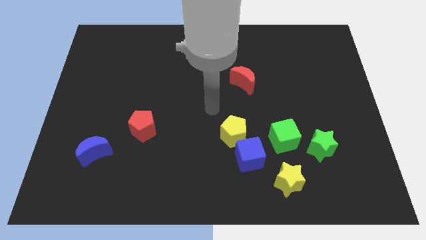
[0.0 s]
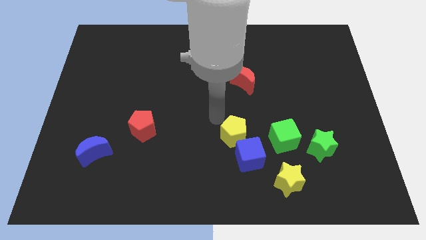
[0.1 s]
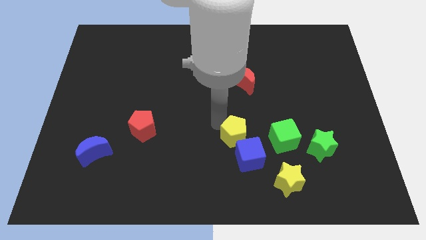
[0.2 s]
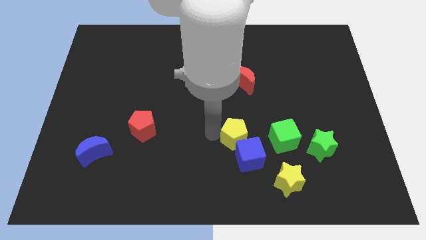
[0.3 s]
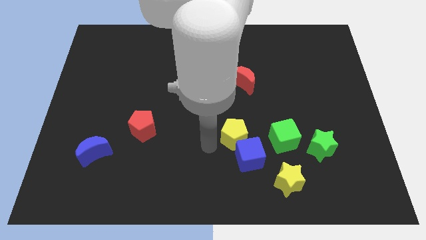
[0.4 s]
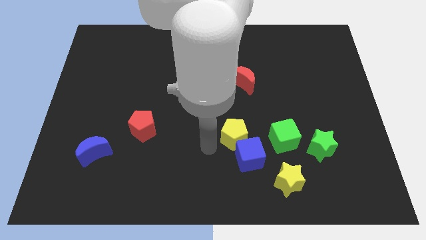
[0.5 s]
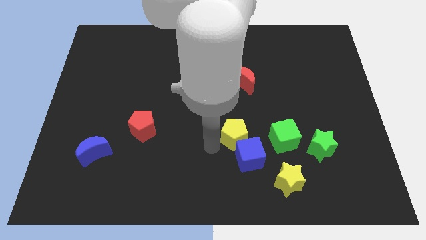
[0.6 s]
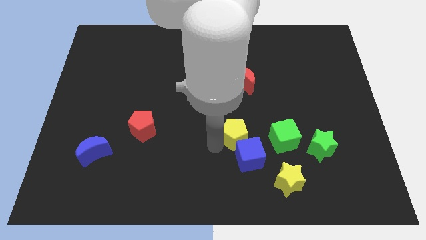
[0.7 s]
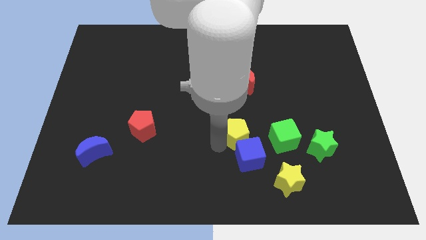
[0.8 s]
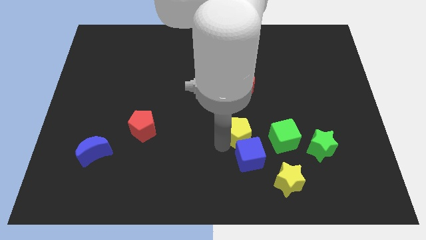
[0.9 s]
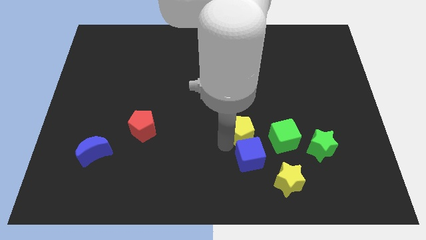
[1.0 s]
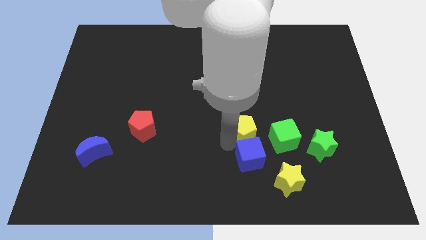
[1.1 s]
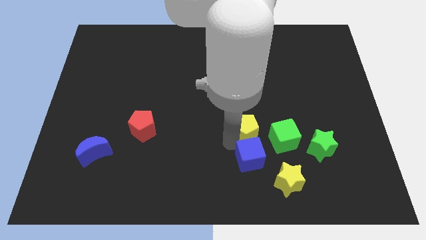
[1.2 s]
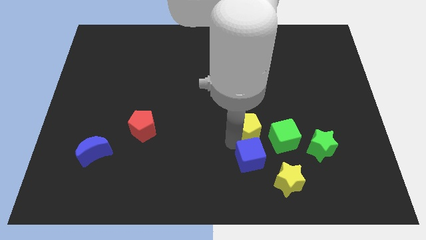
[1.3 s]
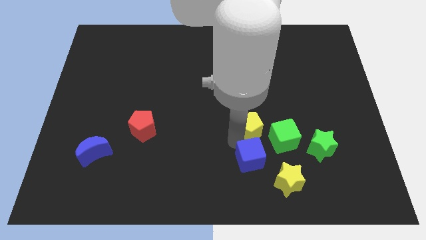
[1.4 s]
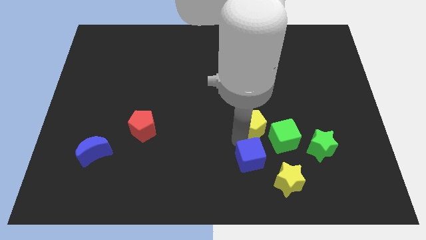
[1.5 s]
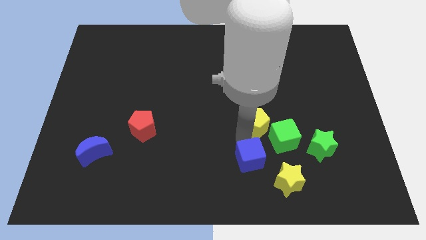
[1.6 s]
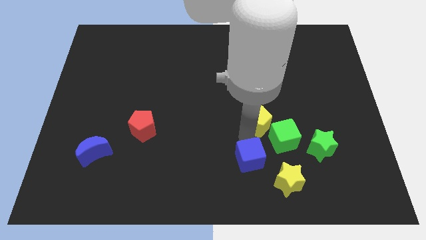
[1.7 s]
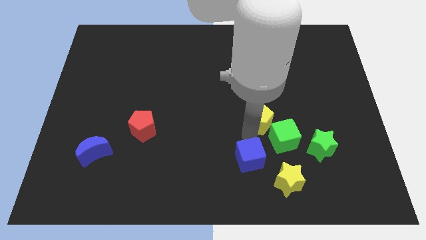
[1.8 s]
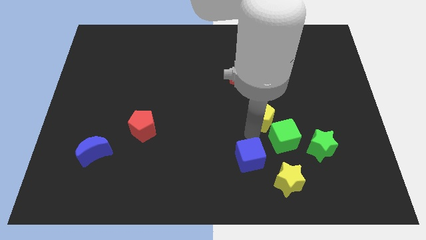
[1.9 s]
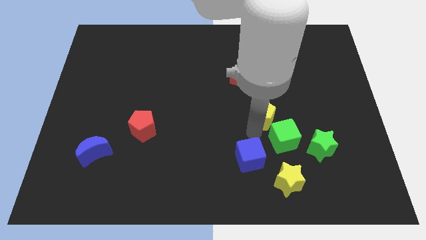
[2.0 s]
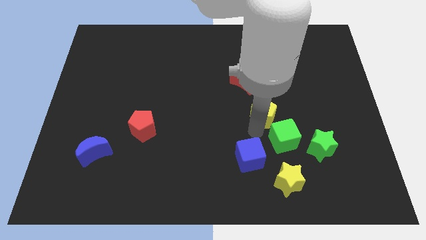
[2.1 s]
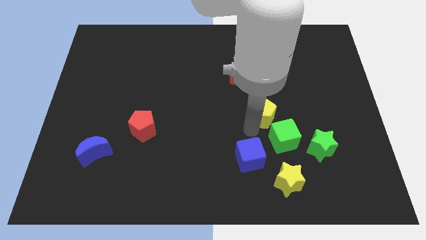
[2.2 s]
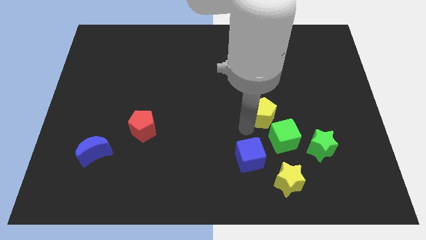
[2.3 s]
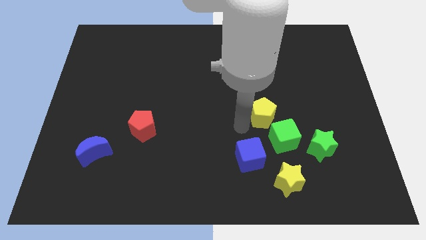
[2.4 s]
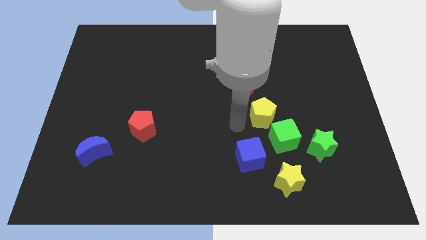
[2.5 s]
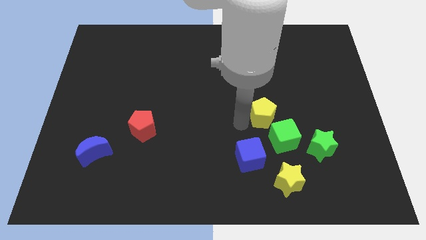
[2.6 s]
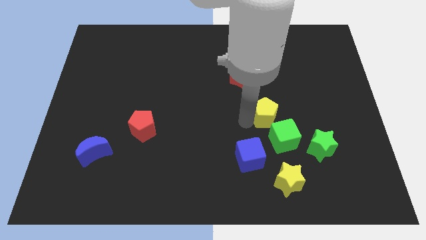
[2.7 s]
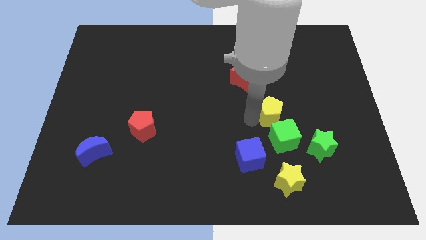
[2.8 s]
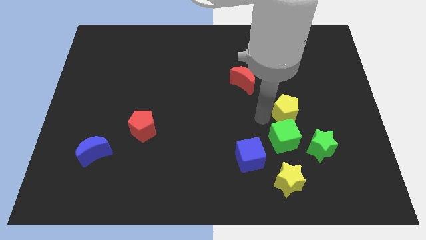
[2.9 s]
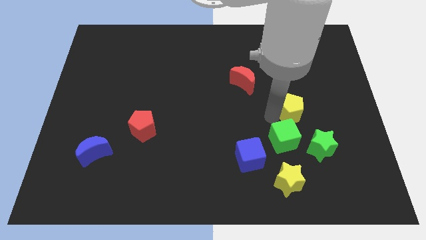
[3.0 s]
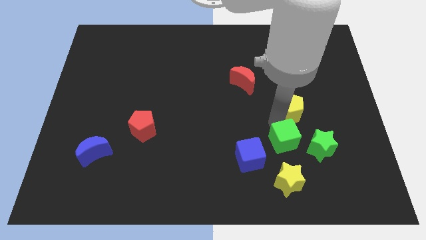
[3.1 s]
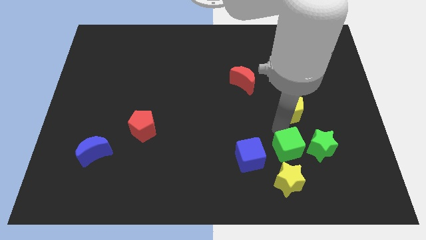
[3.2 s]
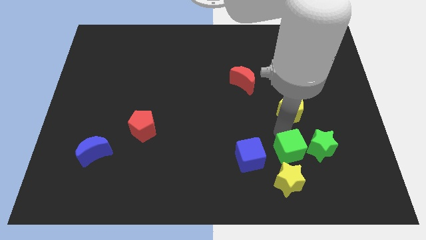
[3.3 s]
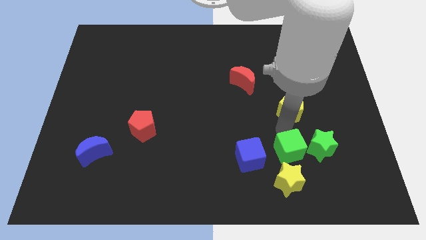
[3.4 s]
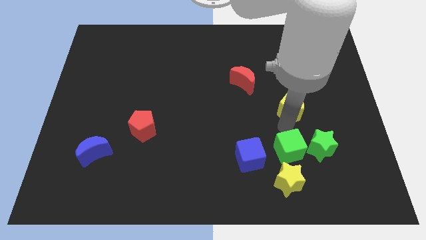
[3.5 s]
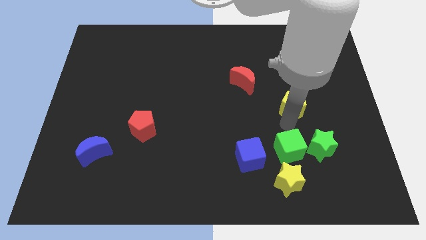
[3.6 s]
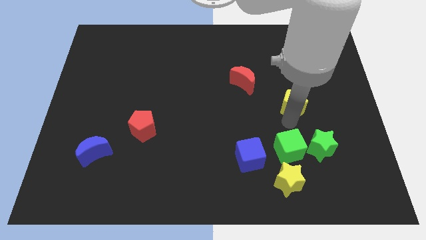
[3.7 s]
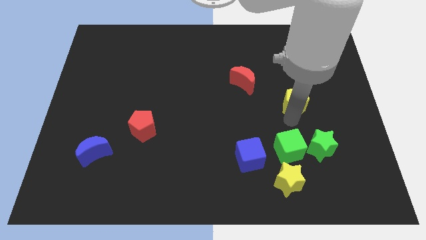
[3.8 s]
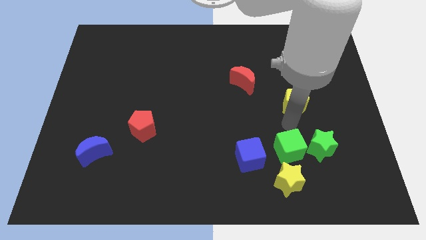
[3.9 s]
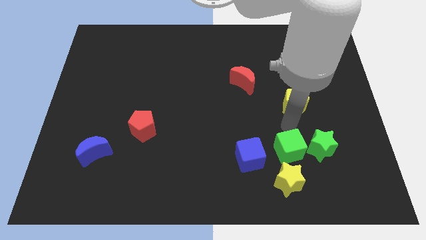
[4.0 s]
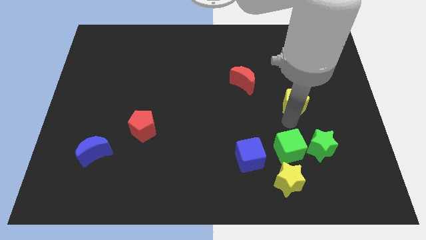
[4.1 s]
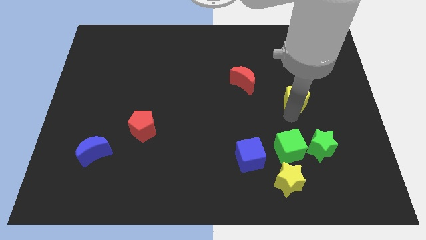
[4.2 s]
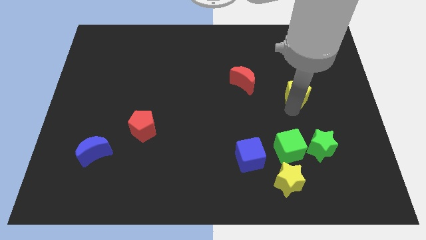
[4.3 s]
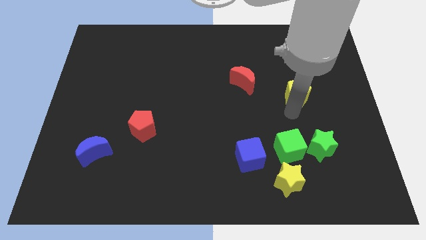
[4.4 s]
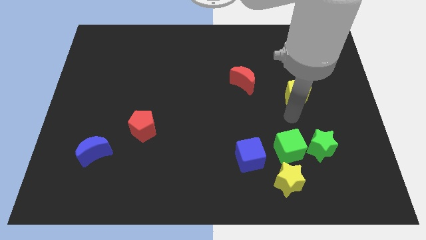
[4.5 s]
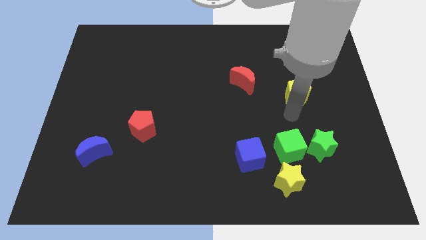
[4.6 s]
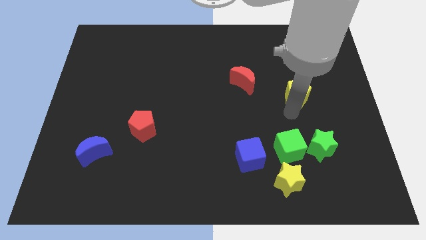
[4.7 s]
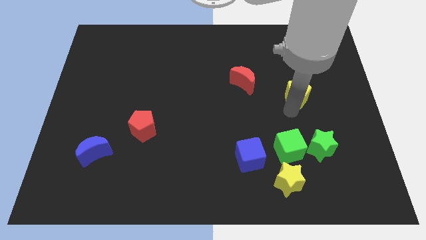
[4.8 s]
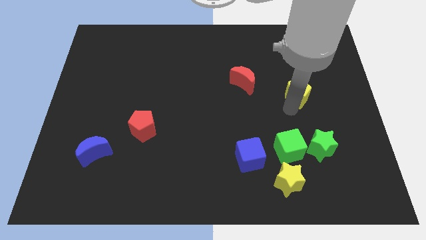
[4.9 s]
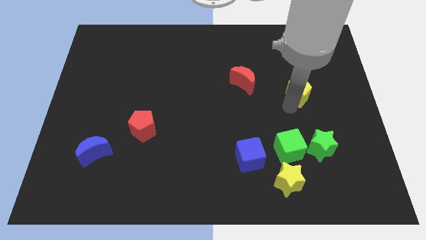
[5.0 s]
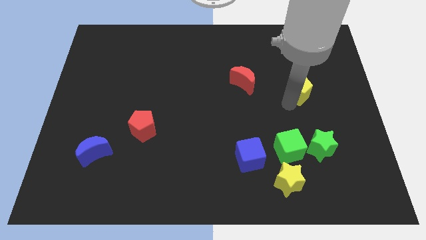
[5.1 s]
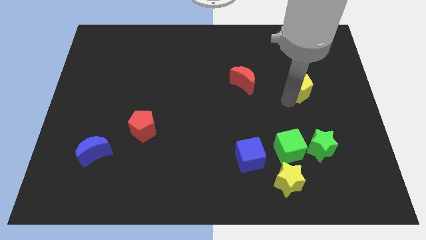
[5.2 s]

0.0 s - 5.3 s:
slide the yellow pentagon upwards and then right

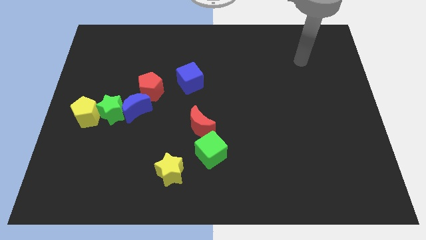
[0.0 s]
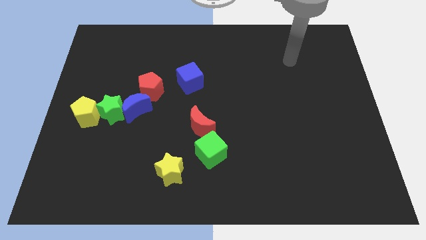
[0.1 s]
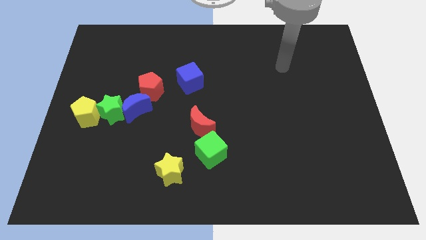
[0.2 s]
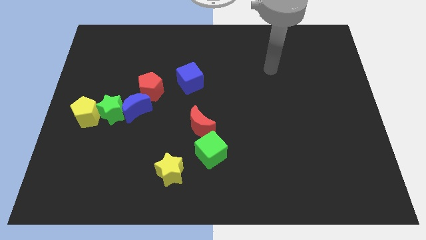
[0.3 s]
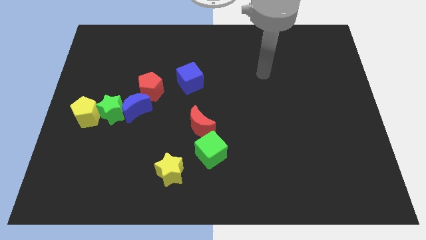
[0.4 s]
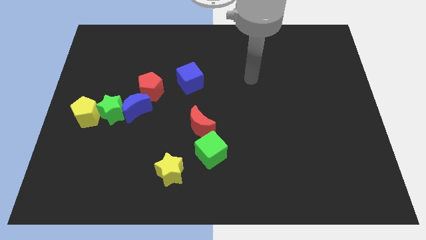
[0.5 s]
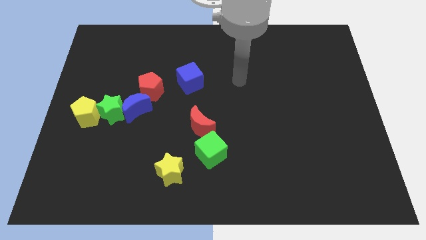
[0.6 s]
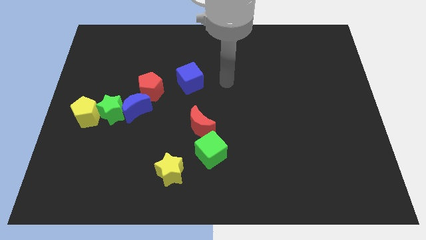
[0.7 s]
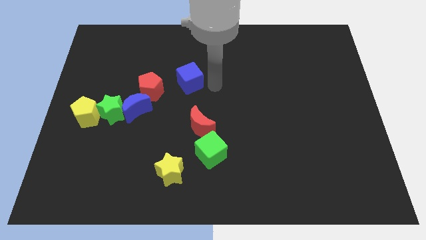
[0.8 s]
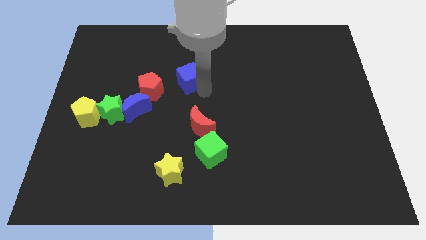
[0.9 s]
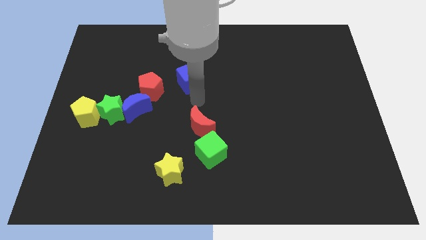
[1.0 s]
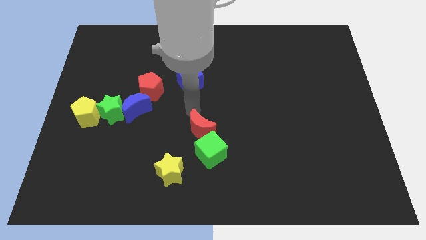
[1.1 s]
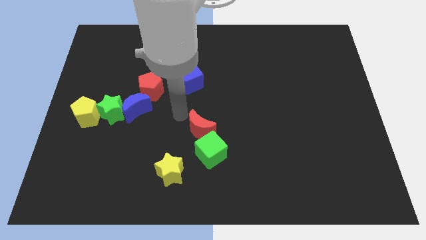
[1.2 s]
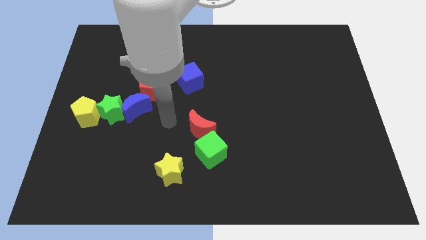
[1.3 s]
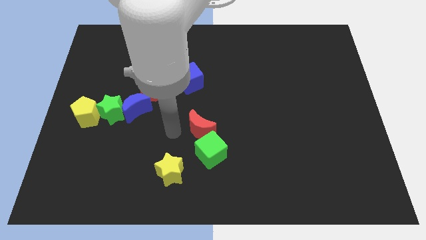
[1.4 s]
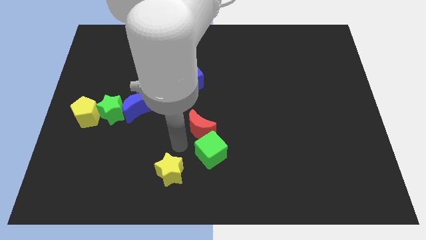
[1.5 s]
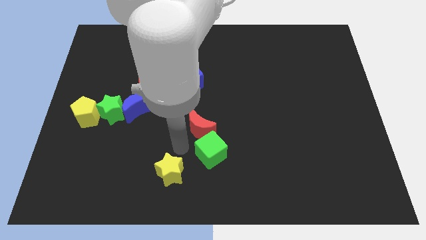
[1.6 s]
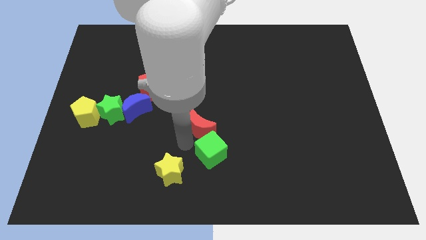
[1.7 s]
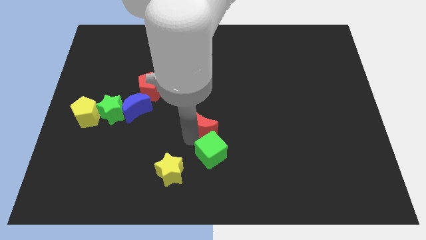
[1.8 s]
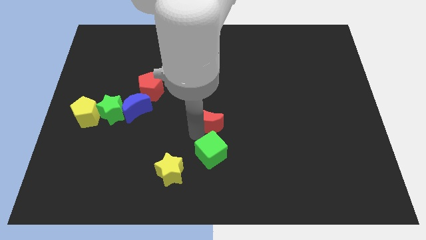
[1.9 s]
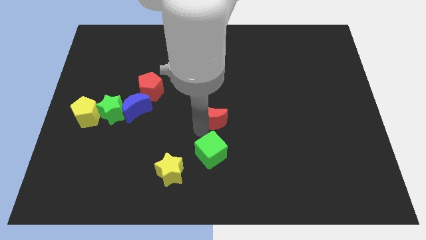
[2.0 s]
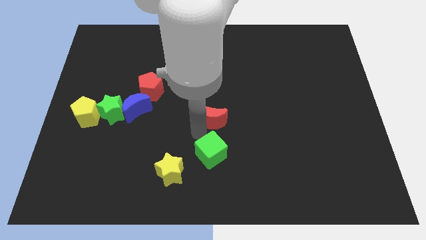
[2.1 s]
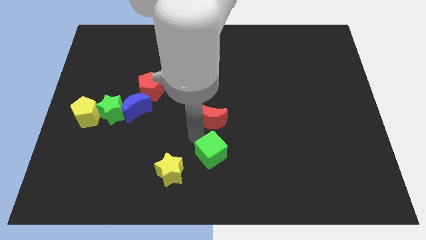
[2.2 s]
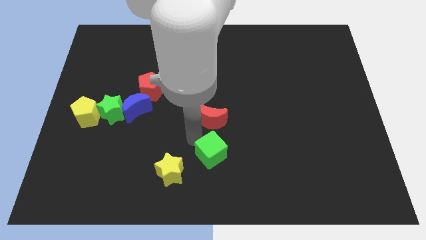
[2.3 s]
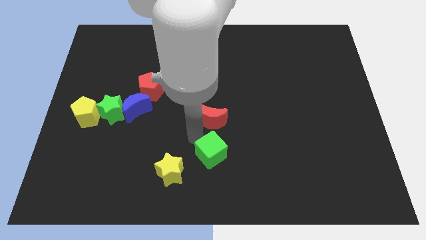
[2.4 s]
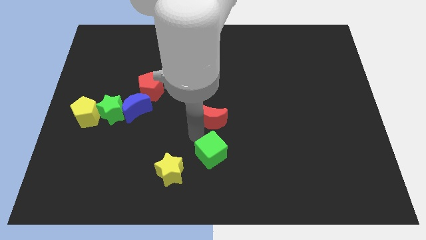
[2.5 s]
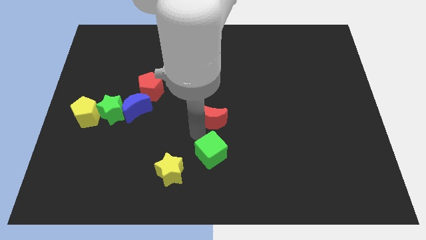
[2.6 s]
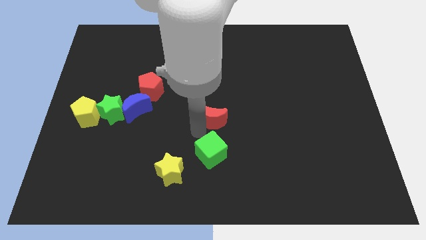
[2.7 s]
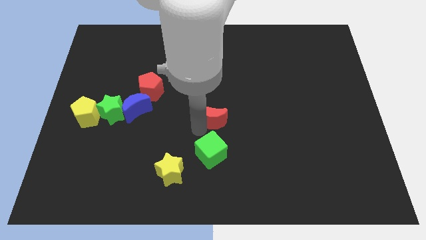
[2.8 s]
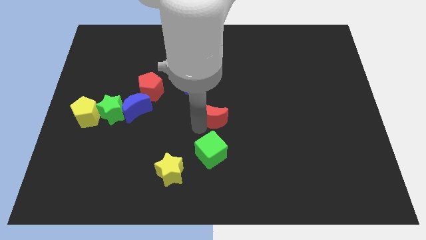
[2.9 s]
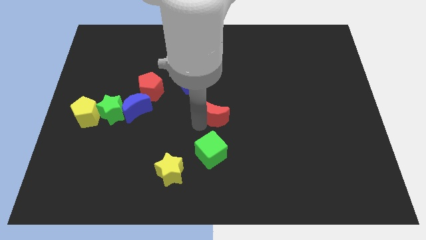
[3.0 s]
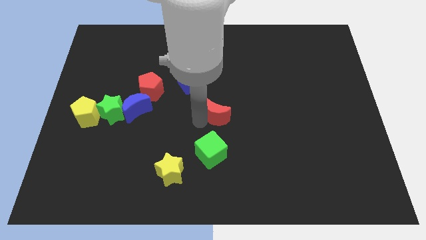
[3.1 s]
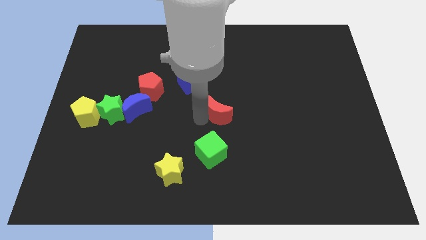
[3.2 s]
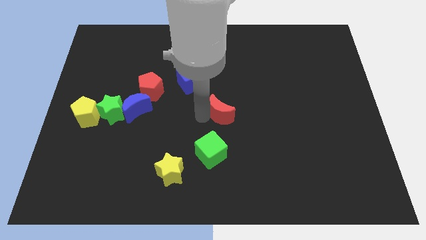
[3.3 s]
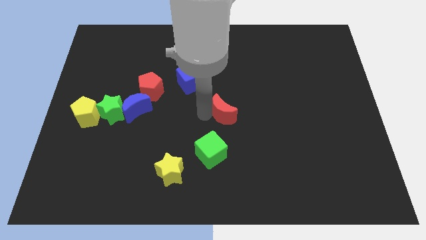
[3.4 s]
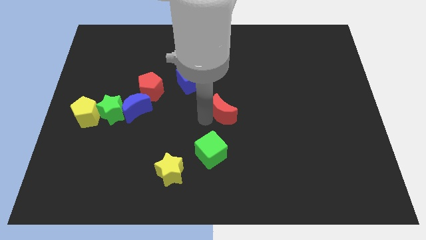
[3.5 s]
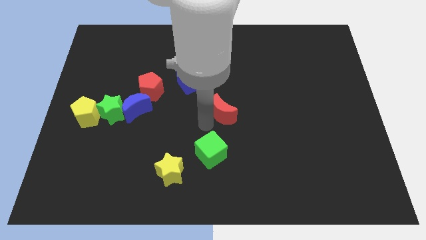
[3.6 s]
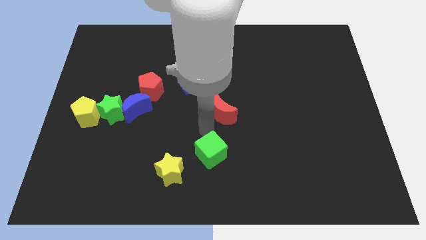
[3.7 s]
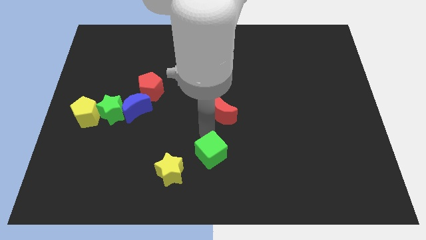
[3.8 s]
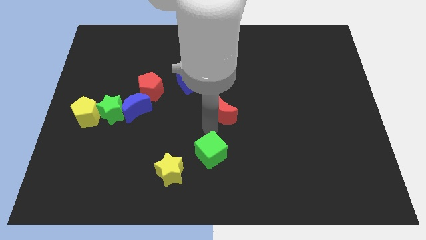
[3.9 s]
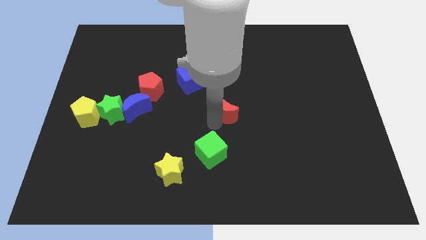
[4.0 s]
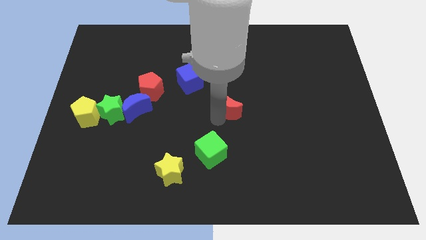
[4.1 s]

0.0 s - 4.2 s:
slightly move the red moon up and right diagonally
